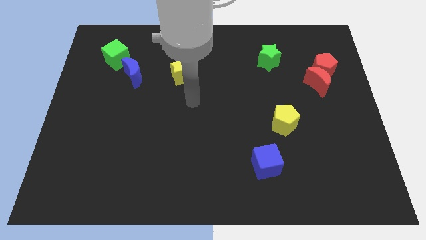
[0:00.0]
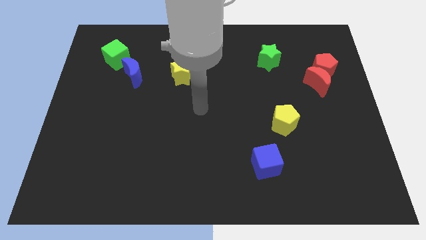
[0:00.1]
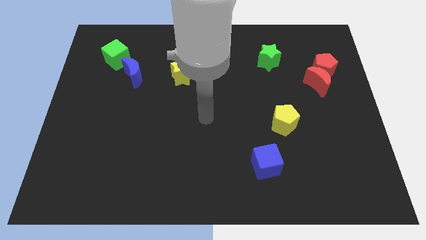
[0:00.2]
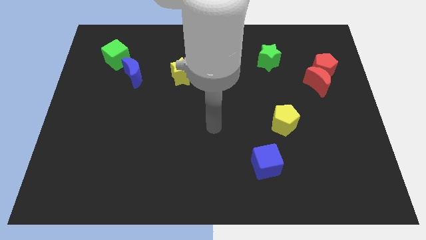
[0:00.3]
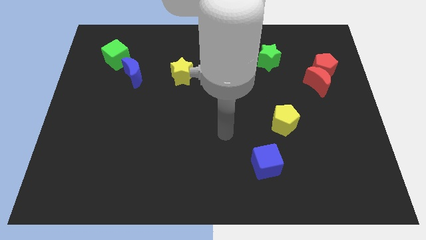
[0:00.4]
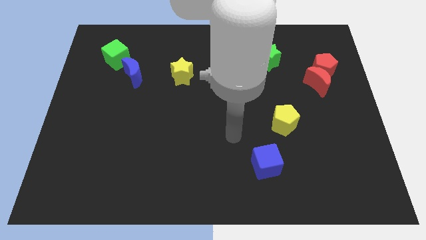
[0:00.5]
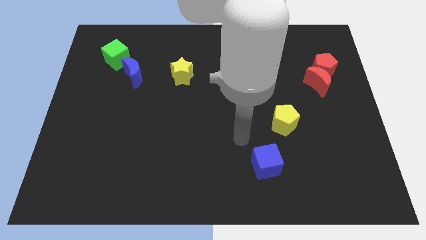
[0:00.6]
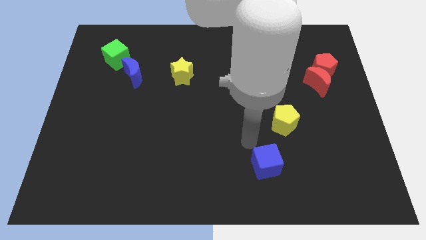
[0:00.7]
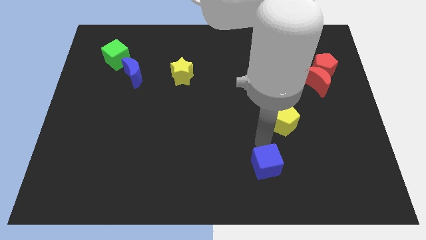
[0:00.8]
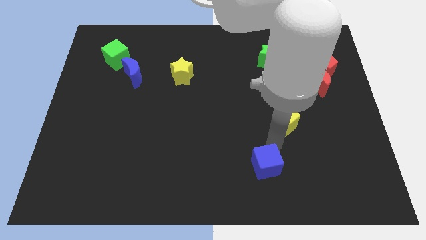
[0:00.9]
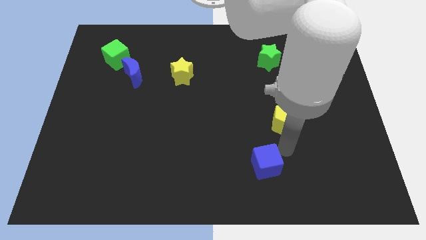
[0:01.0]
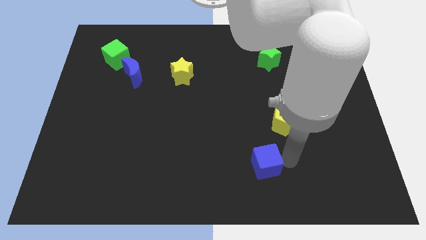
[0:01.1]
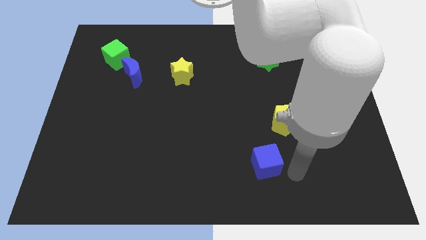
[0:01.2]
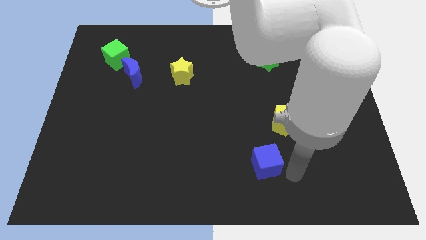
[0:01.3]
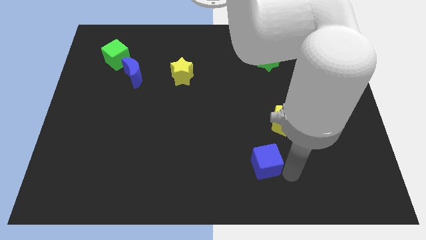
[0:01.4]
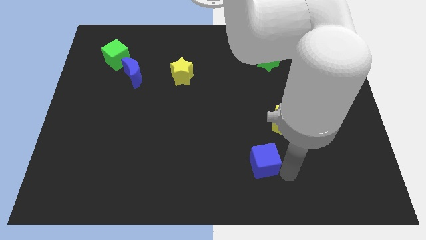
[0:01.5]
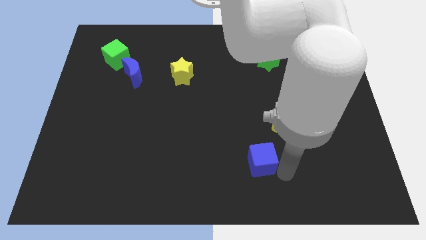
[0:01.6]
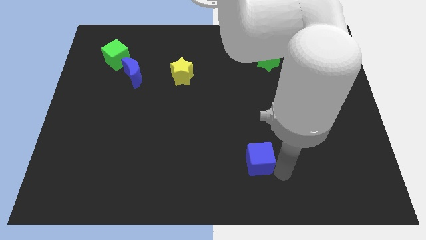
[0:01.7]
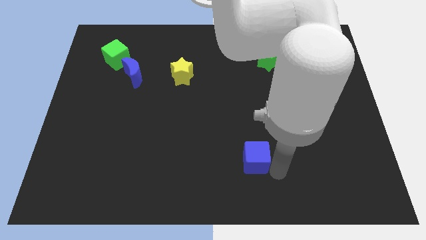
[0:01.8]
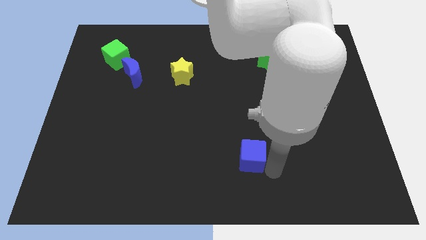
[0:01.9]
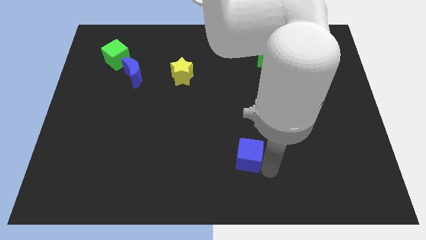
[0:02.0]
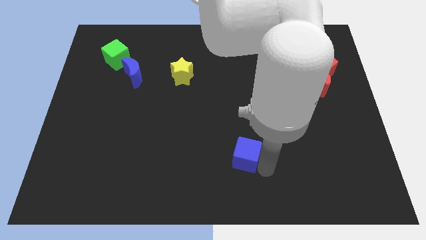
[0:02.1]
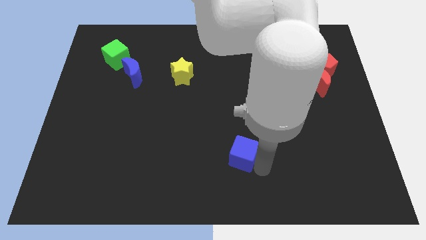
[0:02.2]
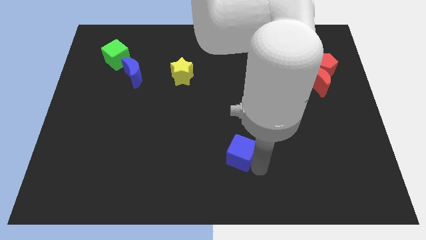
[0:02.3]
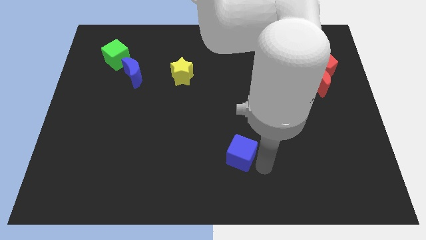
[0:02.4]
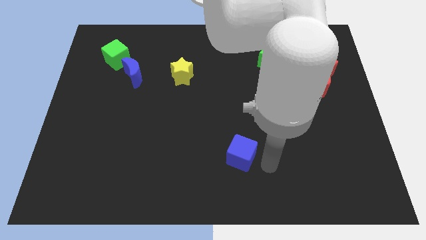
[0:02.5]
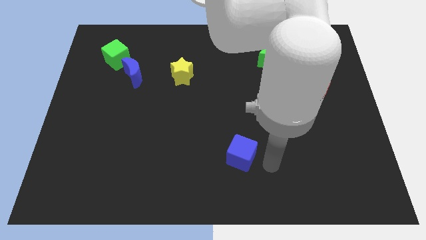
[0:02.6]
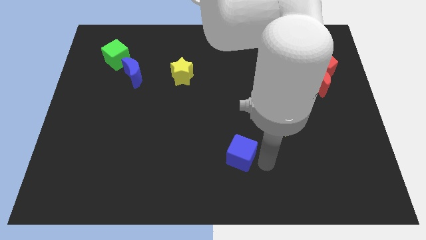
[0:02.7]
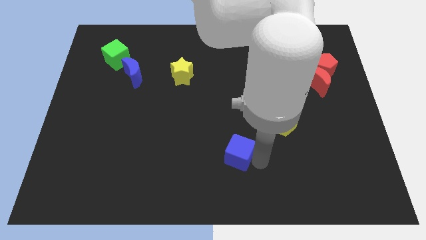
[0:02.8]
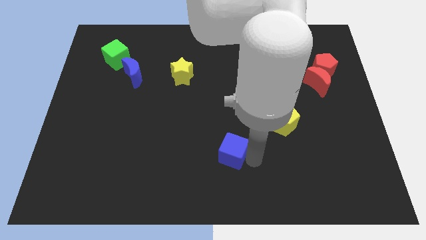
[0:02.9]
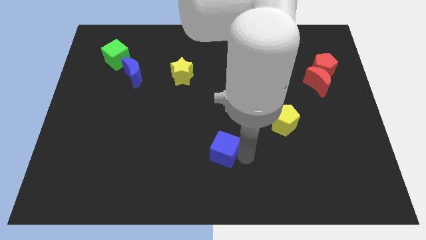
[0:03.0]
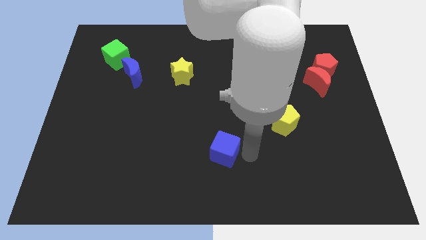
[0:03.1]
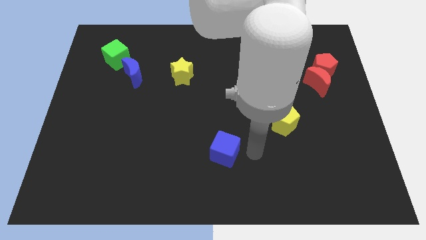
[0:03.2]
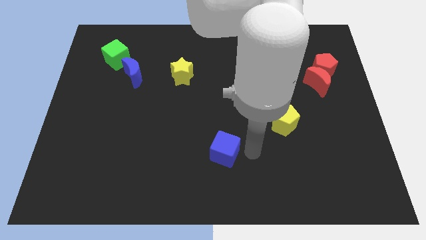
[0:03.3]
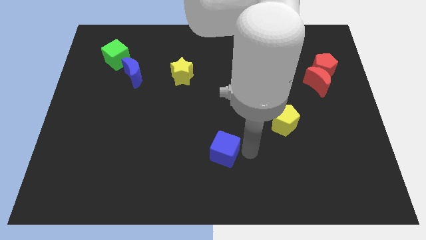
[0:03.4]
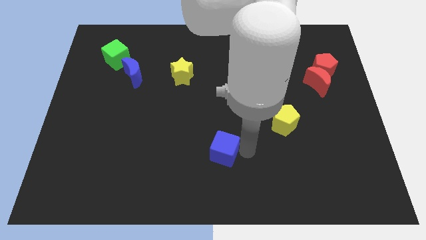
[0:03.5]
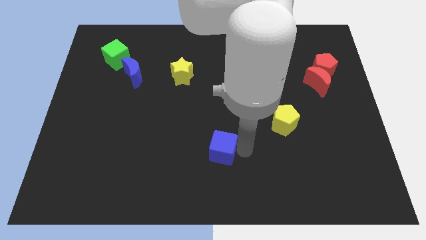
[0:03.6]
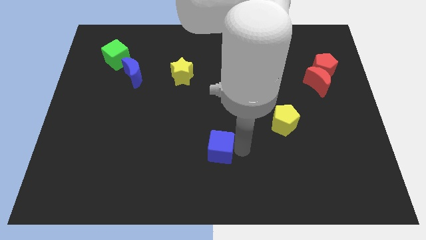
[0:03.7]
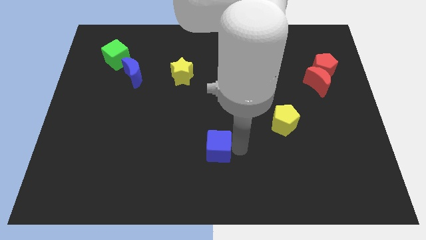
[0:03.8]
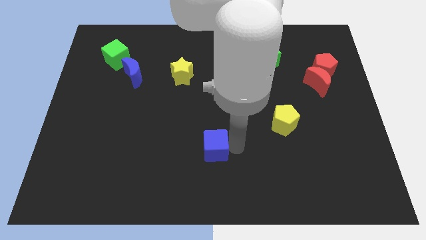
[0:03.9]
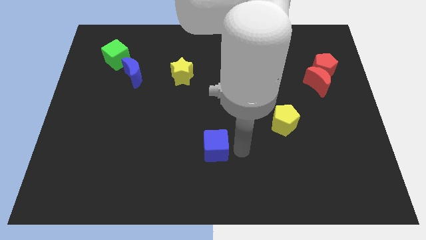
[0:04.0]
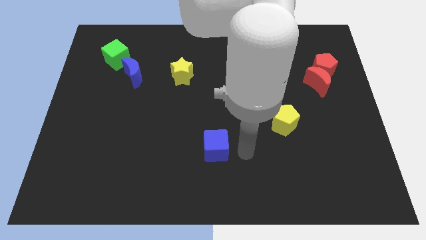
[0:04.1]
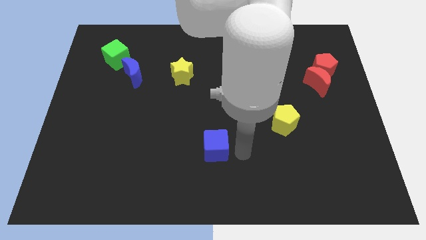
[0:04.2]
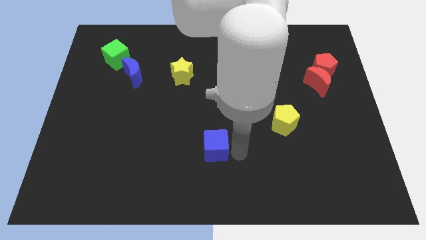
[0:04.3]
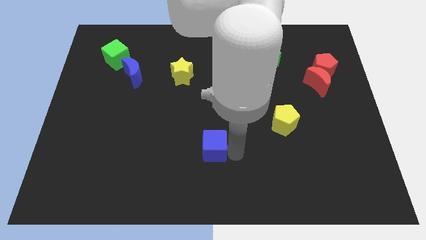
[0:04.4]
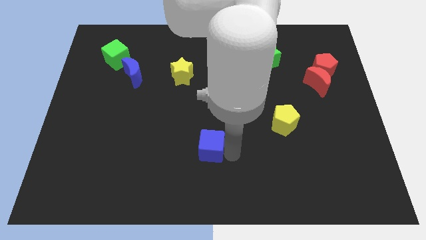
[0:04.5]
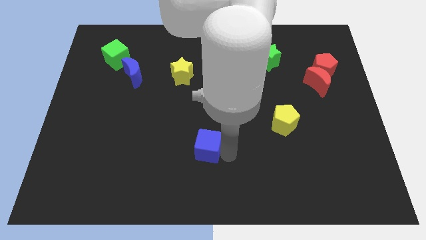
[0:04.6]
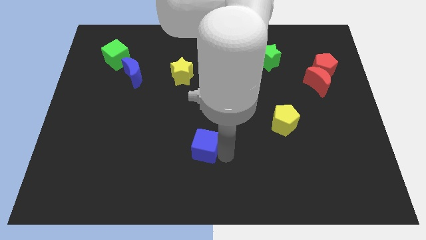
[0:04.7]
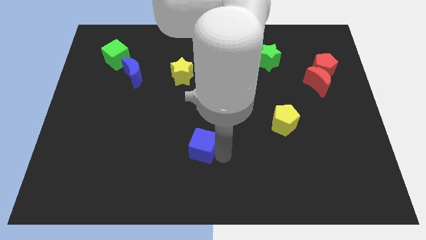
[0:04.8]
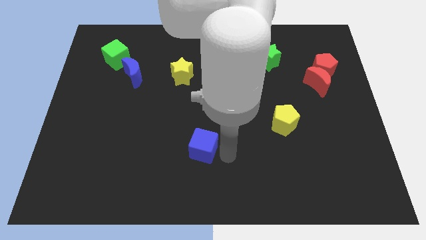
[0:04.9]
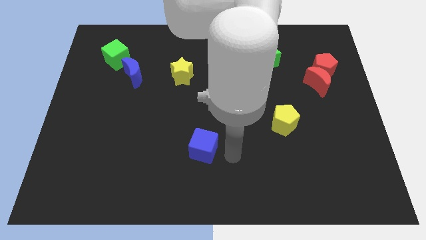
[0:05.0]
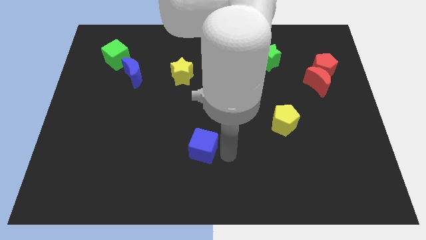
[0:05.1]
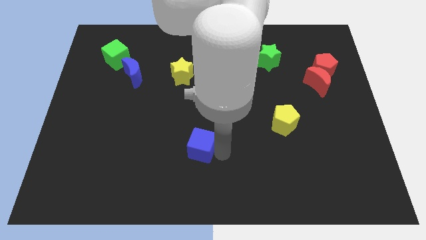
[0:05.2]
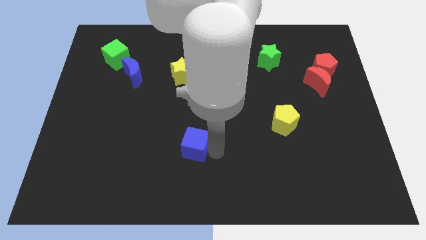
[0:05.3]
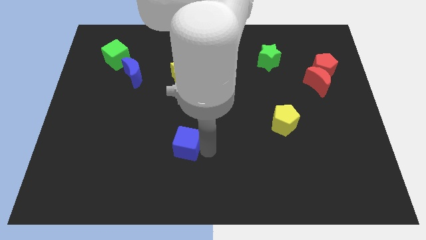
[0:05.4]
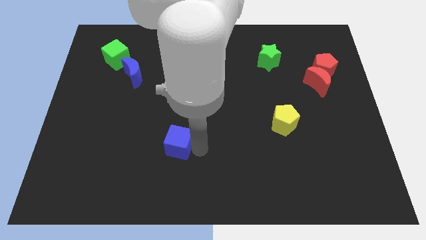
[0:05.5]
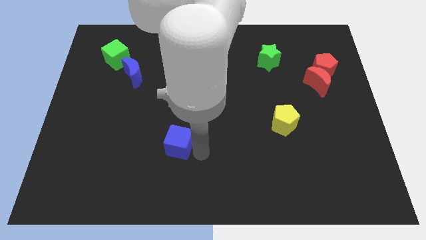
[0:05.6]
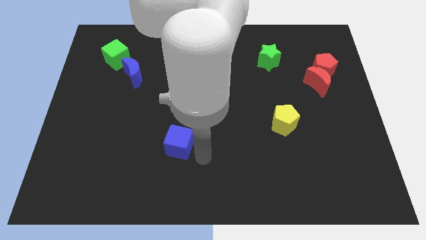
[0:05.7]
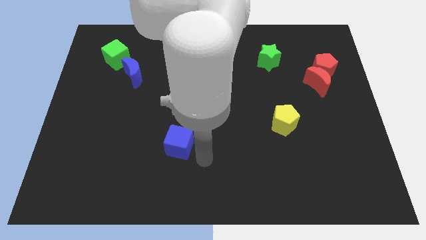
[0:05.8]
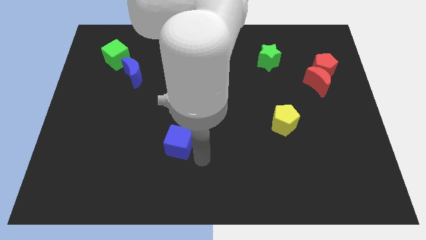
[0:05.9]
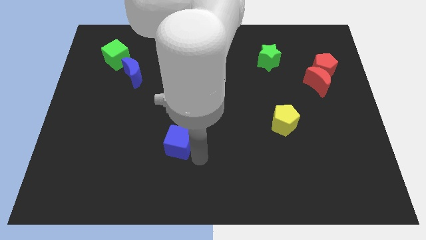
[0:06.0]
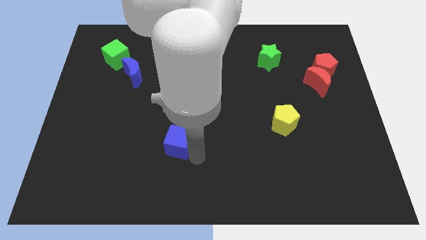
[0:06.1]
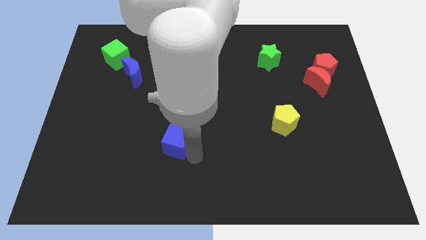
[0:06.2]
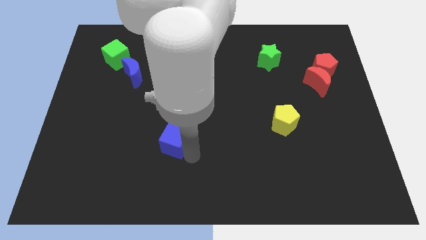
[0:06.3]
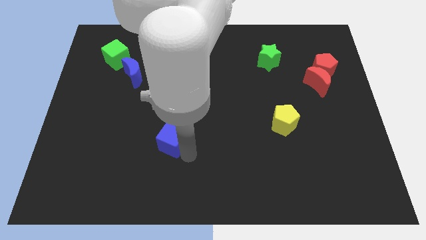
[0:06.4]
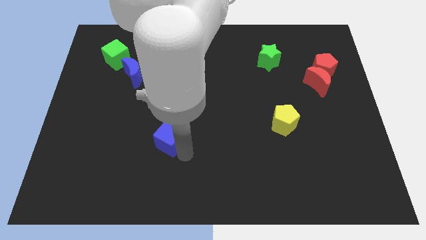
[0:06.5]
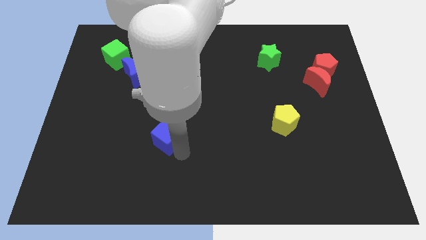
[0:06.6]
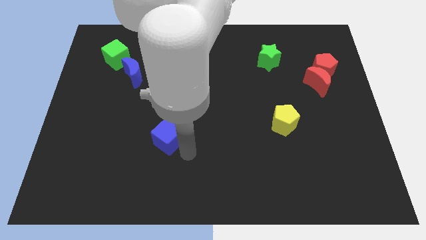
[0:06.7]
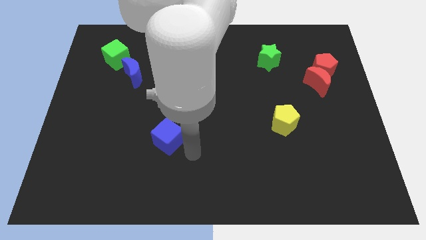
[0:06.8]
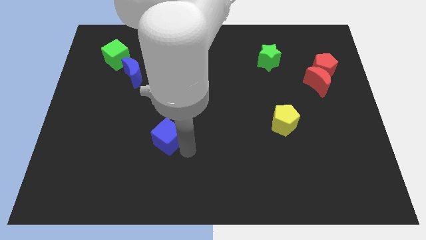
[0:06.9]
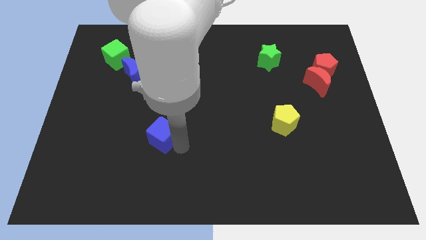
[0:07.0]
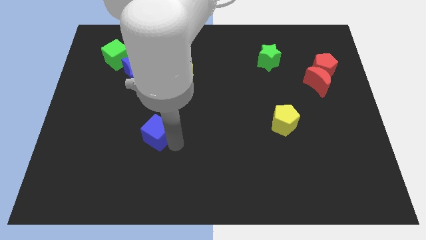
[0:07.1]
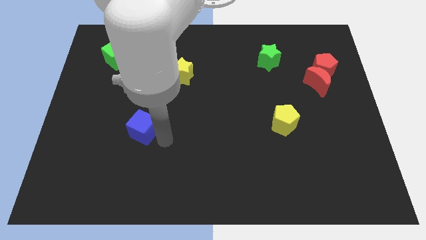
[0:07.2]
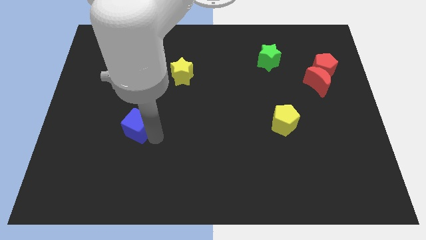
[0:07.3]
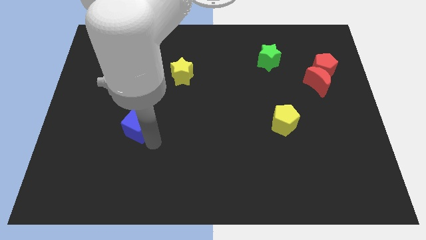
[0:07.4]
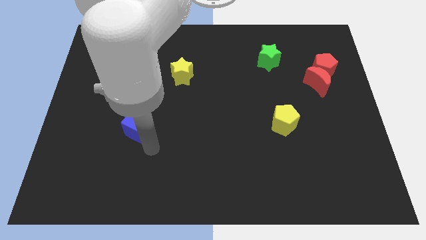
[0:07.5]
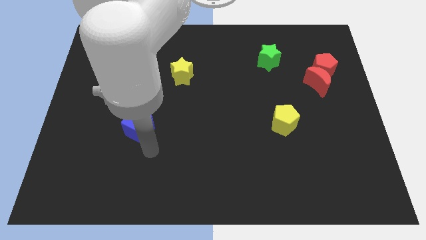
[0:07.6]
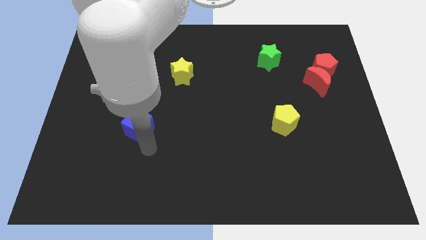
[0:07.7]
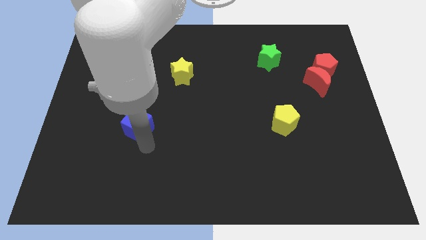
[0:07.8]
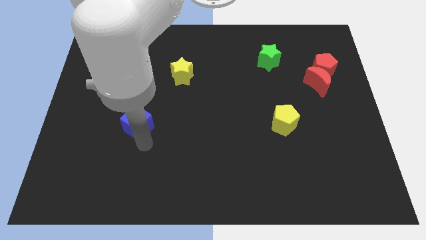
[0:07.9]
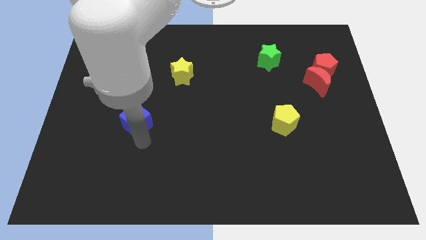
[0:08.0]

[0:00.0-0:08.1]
put the blue cube to the bottom of the blue moon
